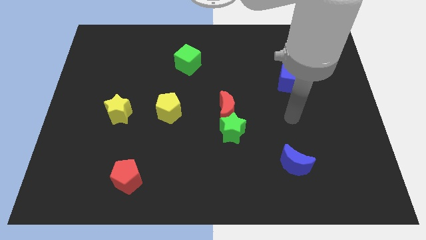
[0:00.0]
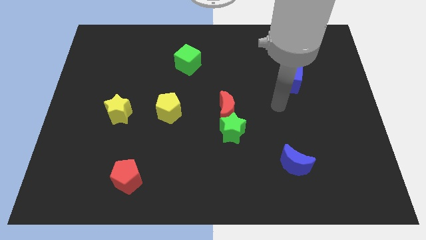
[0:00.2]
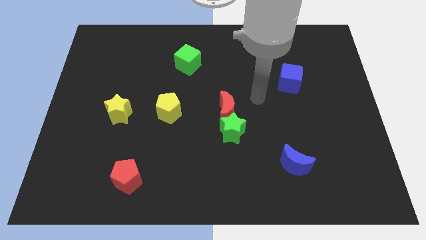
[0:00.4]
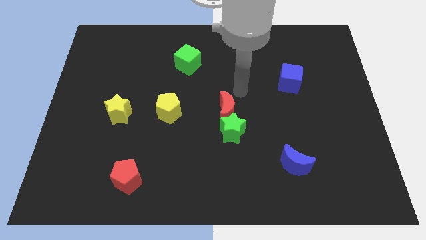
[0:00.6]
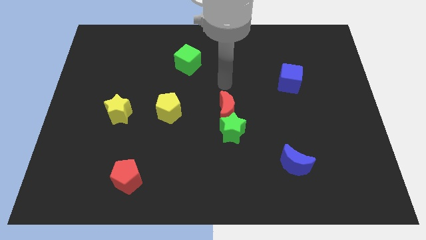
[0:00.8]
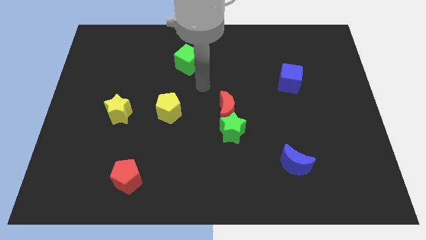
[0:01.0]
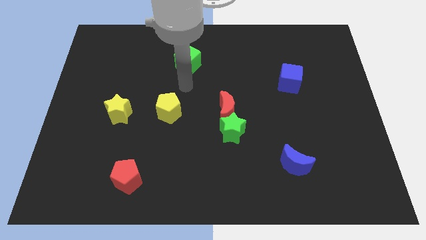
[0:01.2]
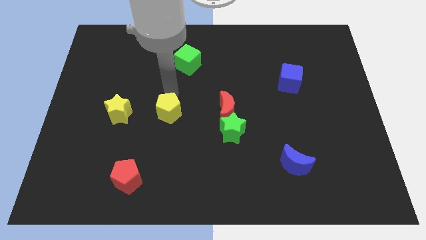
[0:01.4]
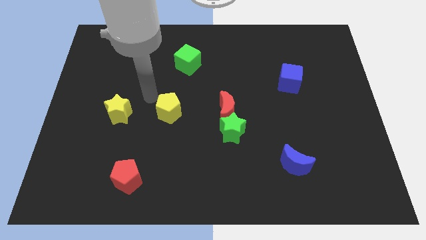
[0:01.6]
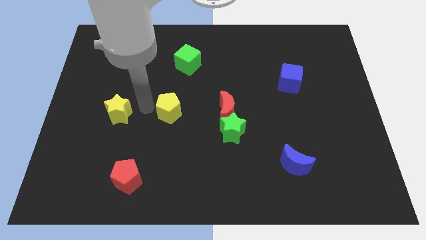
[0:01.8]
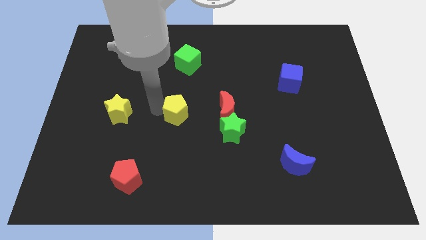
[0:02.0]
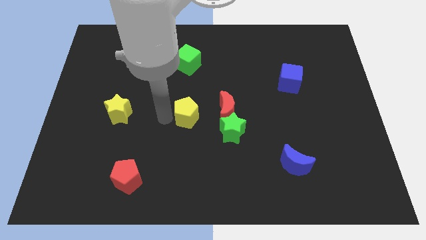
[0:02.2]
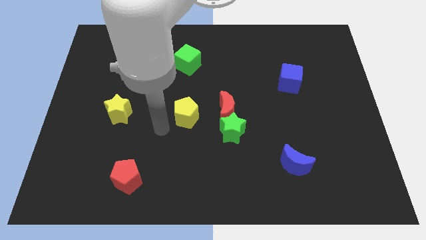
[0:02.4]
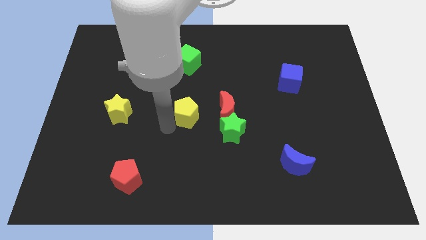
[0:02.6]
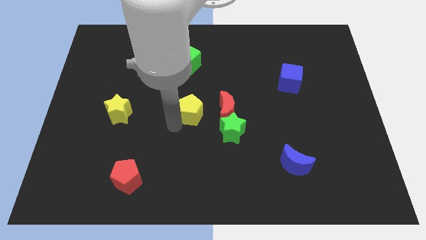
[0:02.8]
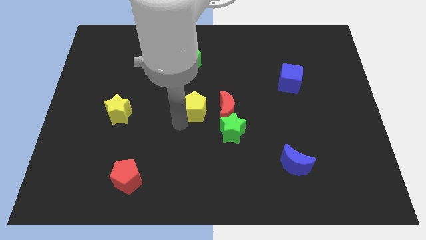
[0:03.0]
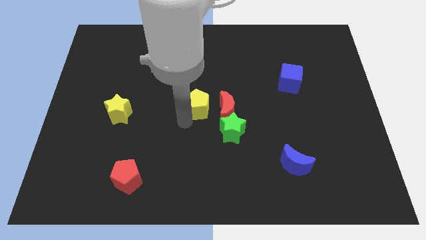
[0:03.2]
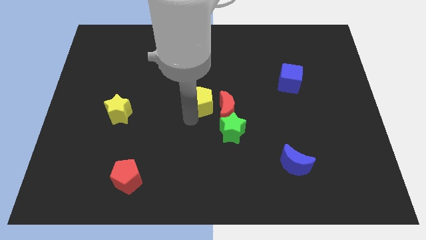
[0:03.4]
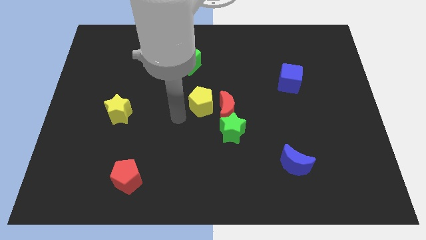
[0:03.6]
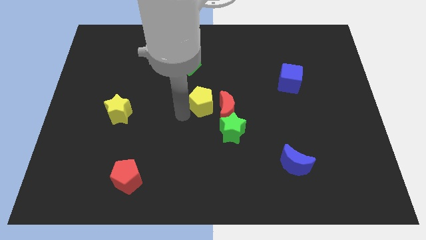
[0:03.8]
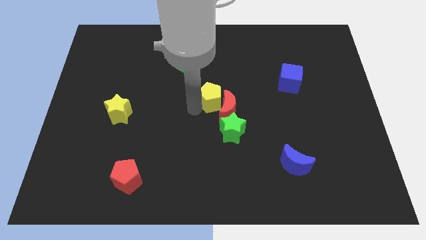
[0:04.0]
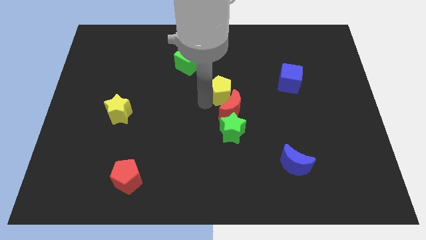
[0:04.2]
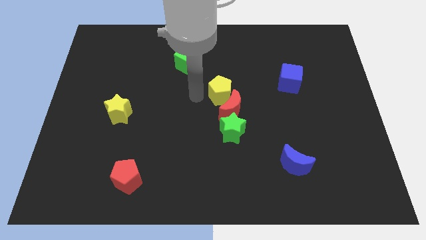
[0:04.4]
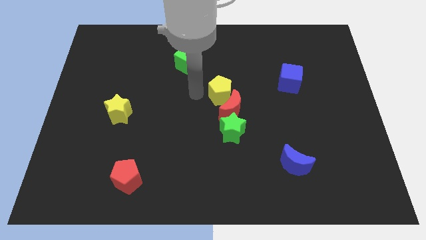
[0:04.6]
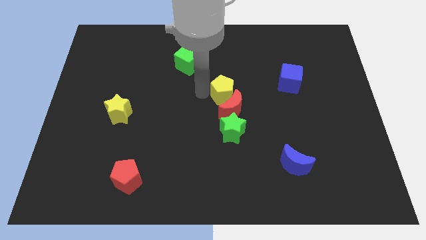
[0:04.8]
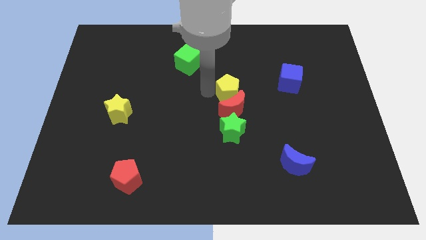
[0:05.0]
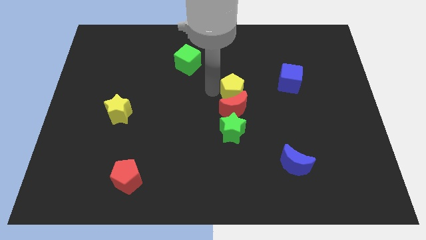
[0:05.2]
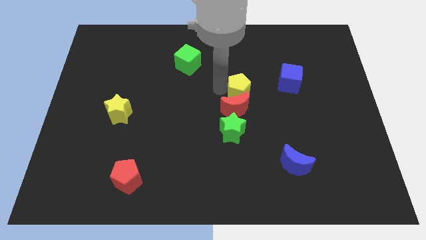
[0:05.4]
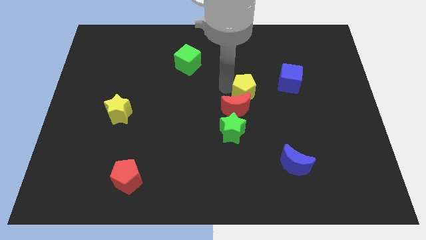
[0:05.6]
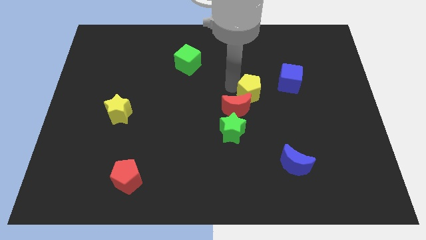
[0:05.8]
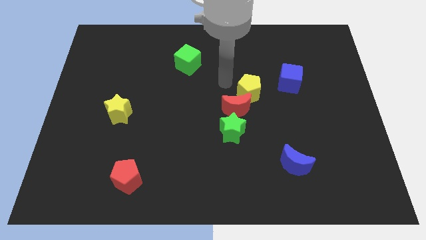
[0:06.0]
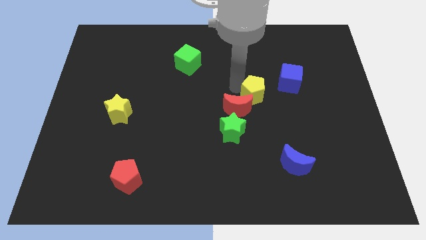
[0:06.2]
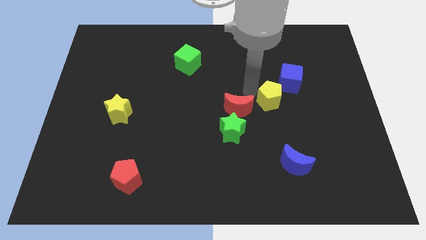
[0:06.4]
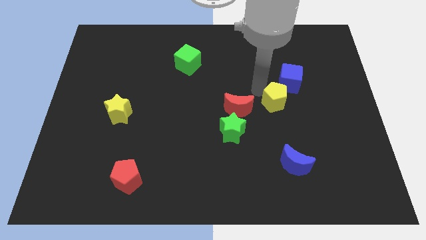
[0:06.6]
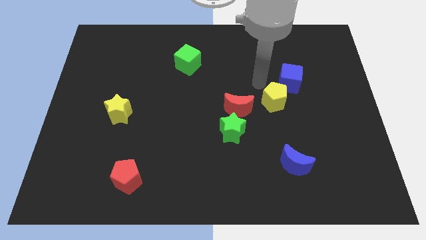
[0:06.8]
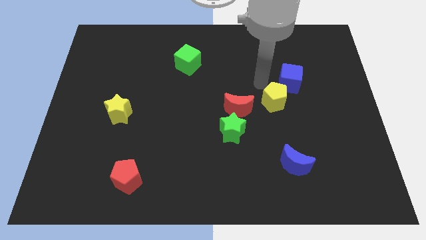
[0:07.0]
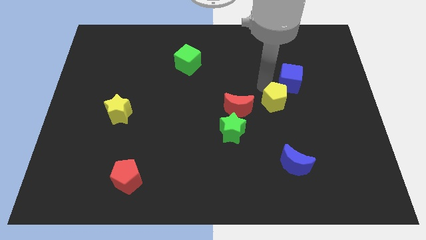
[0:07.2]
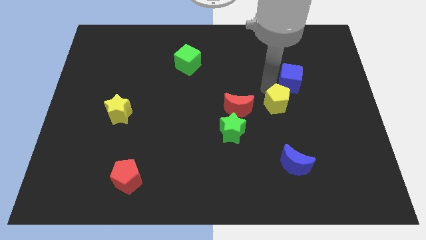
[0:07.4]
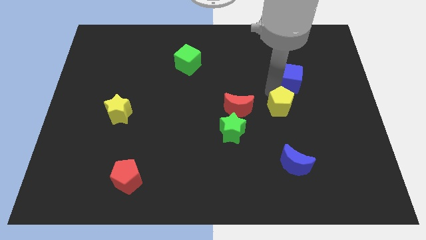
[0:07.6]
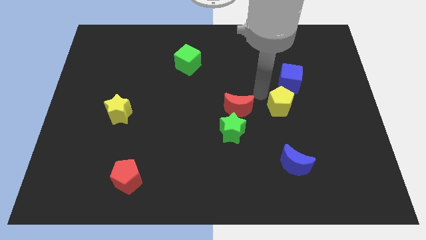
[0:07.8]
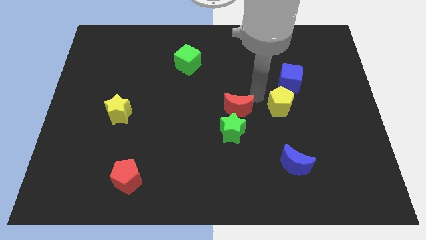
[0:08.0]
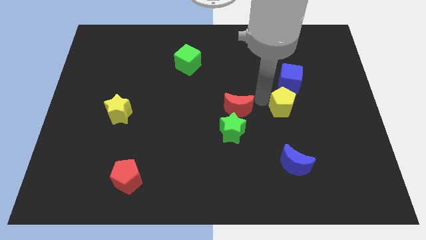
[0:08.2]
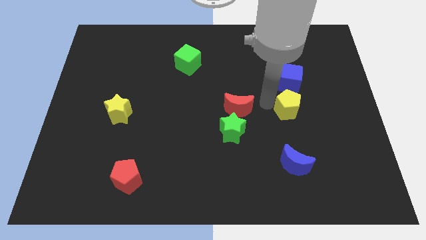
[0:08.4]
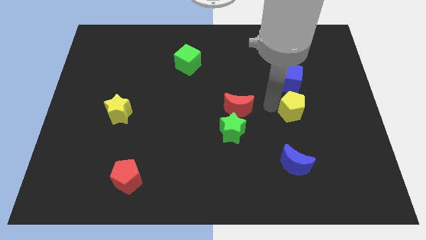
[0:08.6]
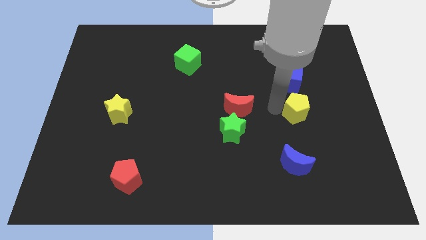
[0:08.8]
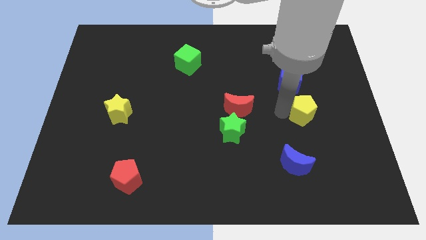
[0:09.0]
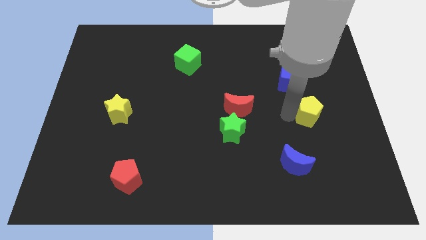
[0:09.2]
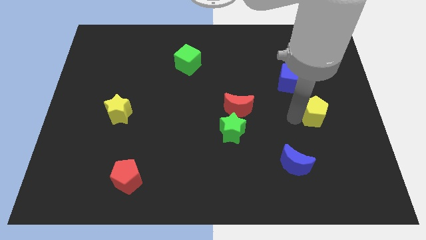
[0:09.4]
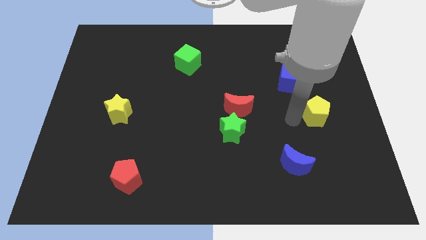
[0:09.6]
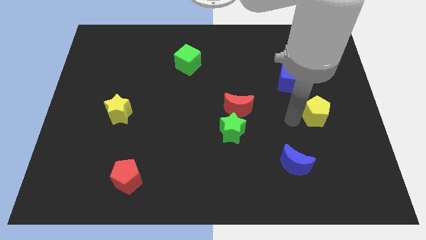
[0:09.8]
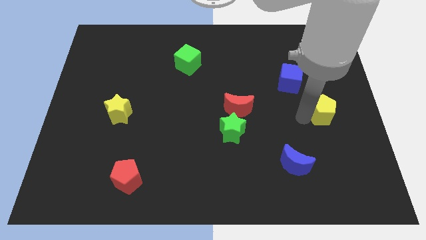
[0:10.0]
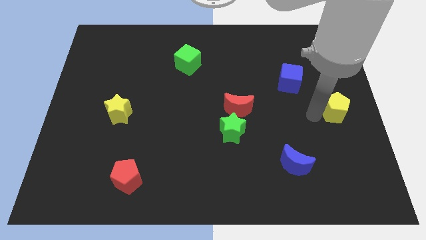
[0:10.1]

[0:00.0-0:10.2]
push the yellow pentagon to the right side

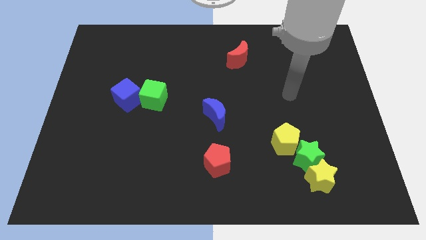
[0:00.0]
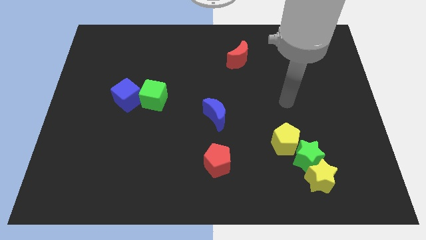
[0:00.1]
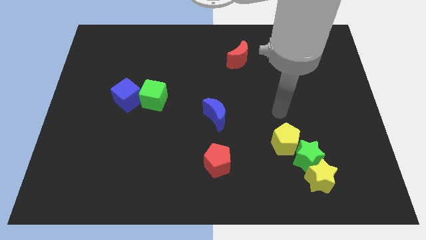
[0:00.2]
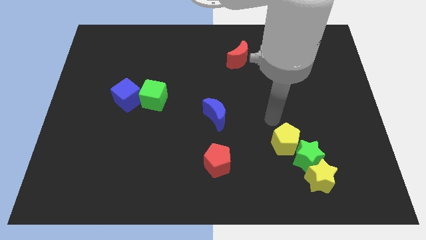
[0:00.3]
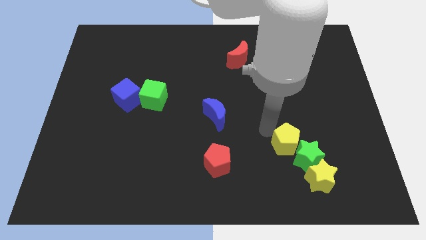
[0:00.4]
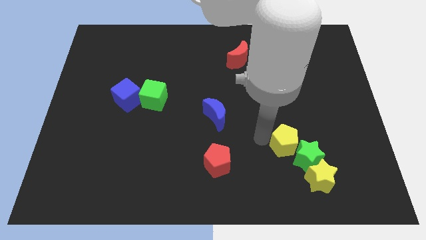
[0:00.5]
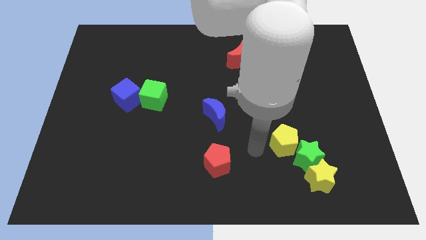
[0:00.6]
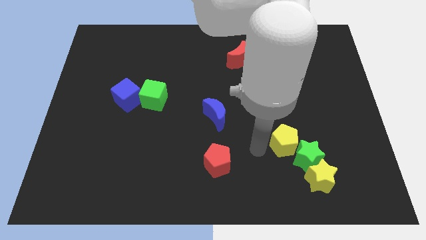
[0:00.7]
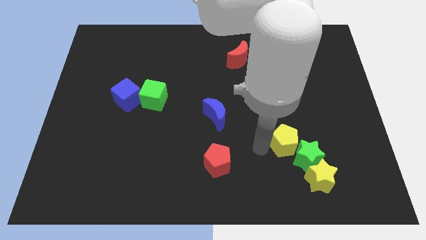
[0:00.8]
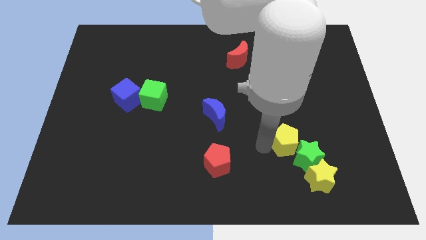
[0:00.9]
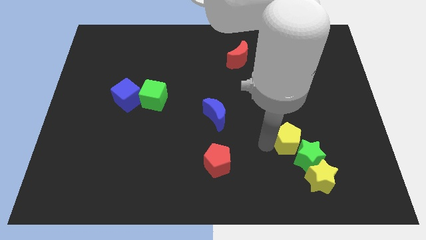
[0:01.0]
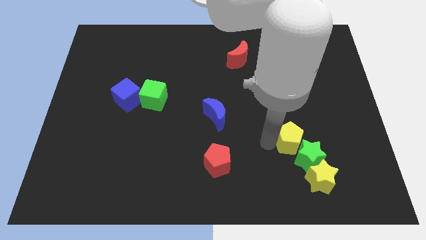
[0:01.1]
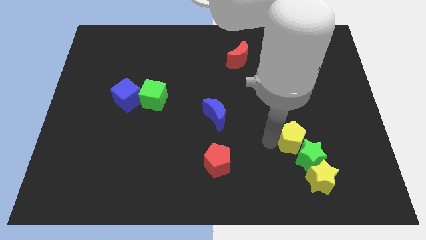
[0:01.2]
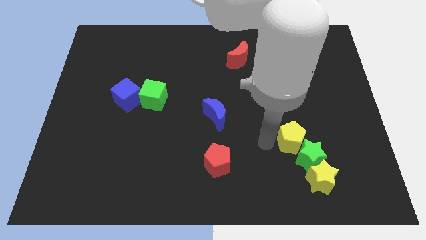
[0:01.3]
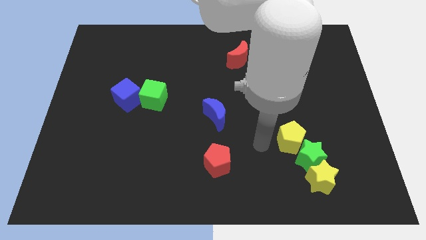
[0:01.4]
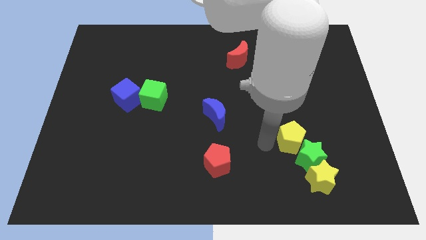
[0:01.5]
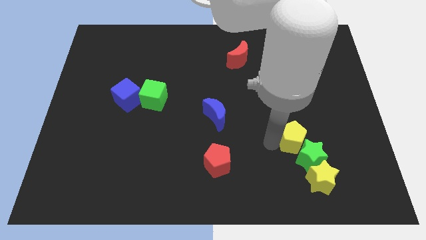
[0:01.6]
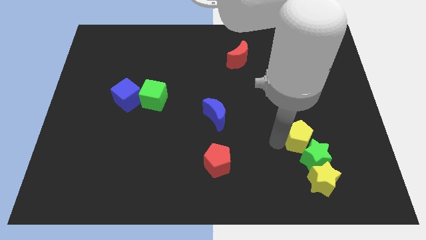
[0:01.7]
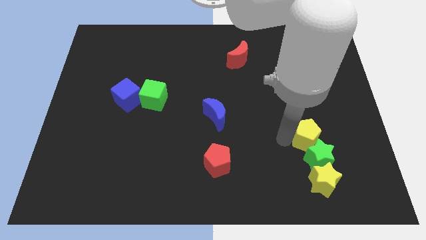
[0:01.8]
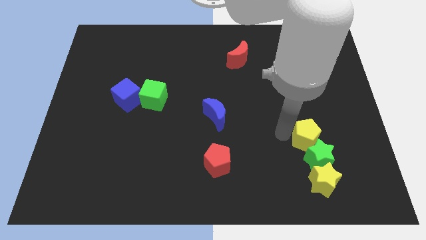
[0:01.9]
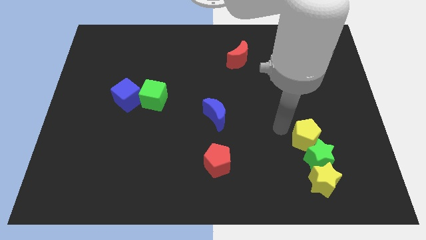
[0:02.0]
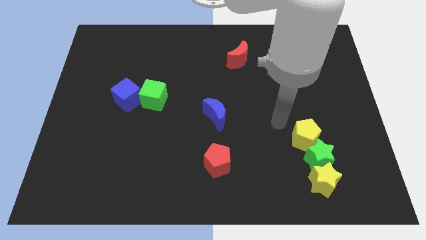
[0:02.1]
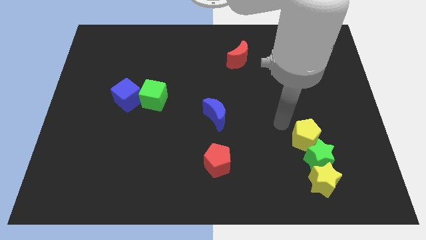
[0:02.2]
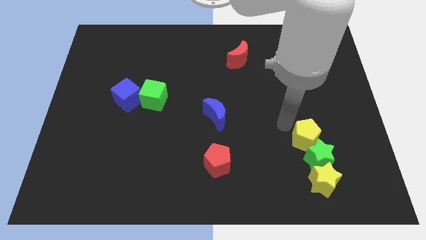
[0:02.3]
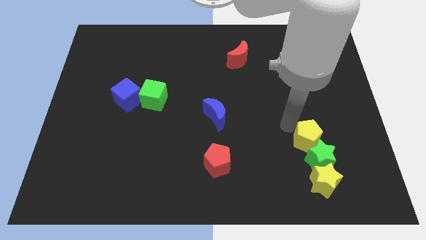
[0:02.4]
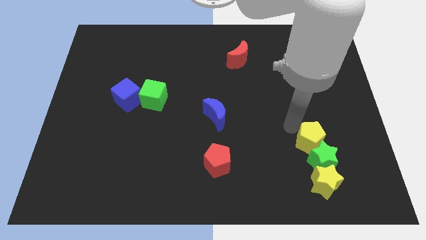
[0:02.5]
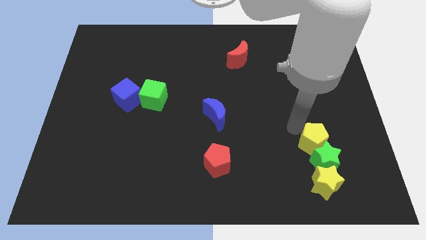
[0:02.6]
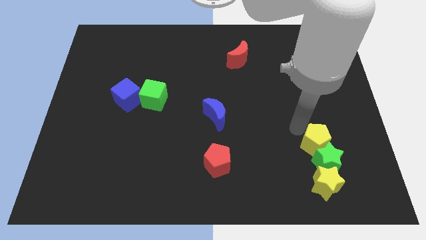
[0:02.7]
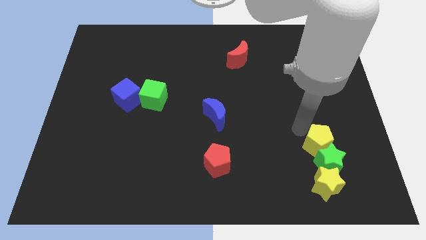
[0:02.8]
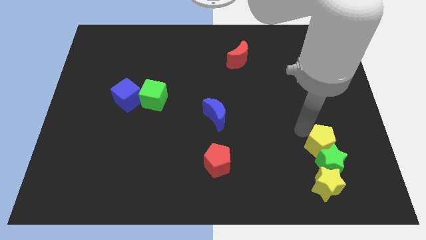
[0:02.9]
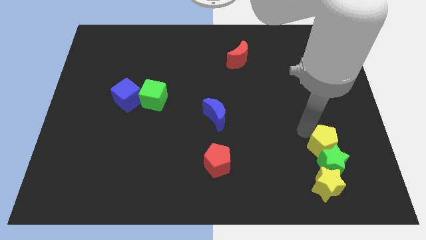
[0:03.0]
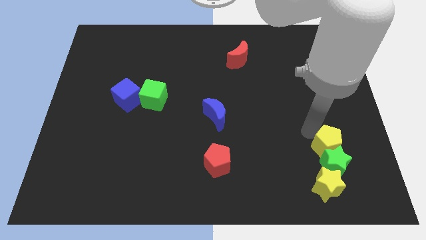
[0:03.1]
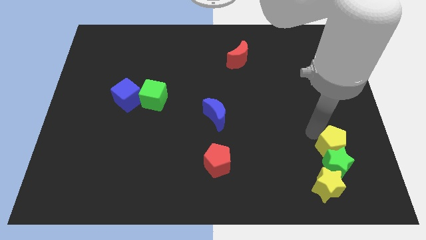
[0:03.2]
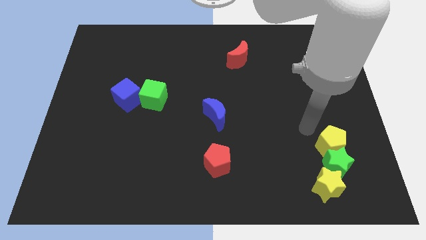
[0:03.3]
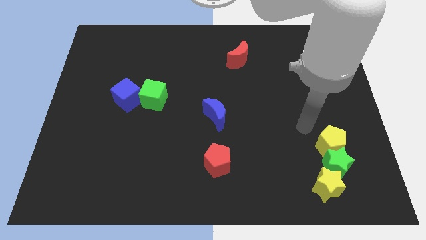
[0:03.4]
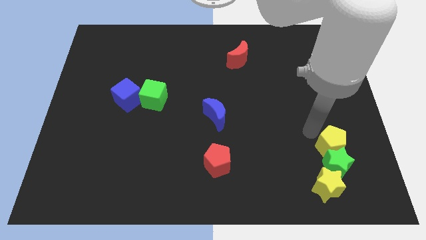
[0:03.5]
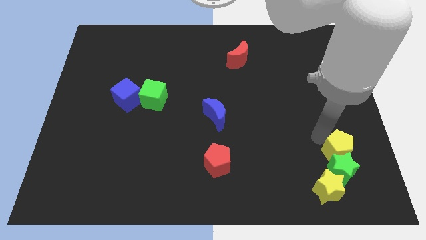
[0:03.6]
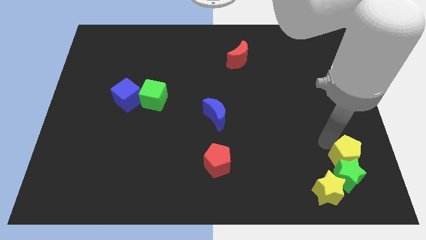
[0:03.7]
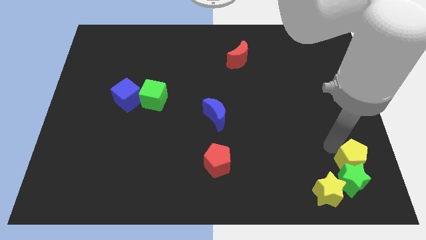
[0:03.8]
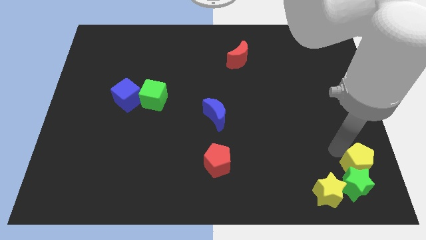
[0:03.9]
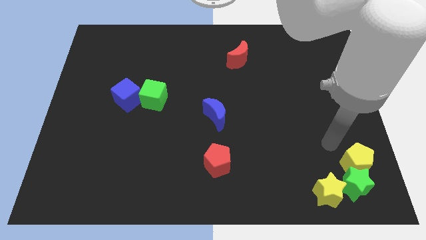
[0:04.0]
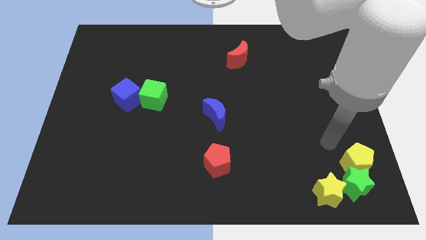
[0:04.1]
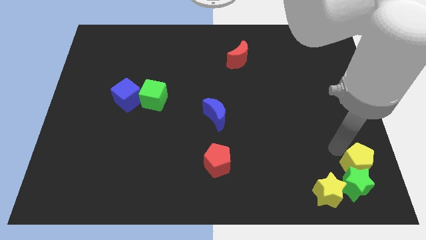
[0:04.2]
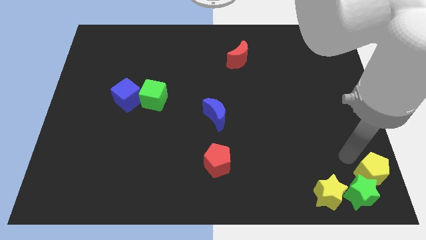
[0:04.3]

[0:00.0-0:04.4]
move the yellow pentagon to the bottom right
